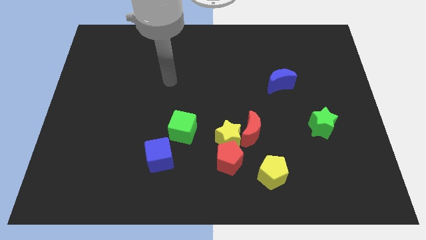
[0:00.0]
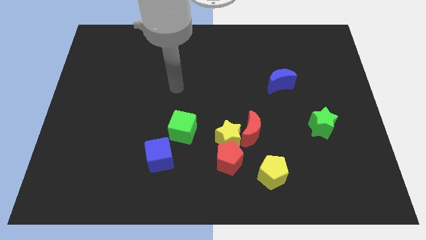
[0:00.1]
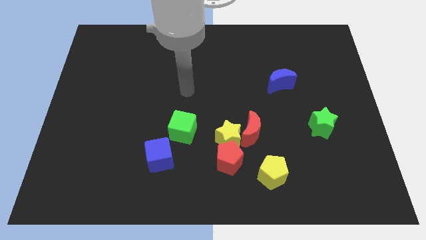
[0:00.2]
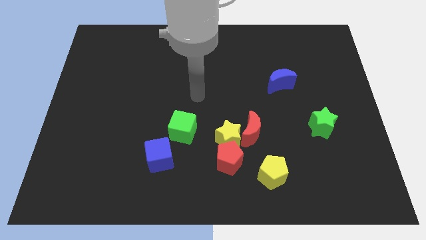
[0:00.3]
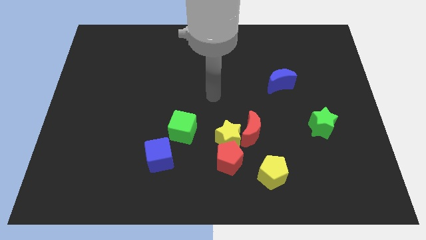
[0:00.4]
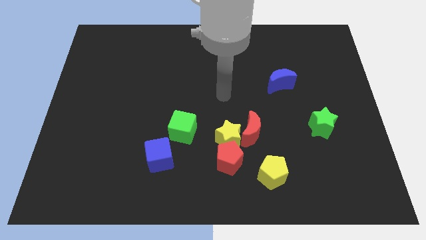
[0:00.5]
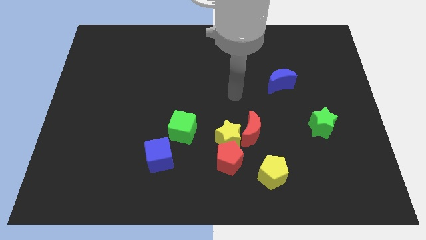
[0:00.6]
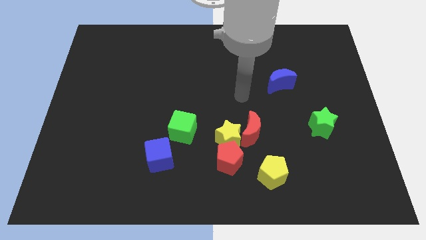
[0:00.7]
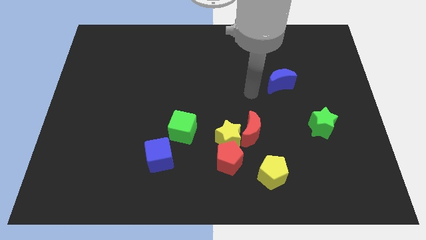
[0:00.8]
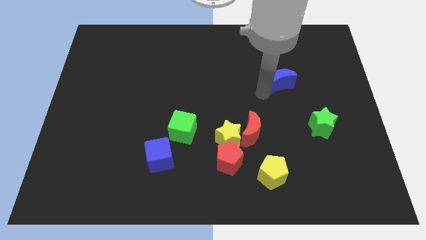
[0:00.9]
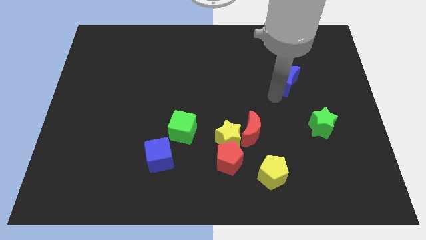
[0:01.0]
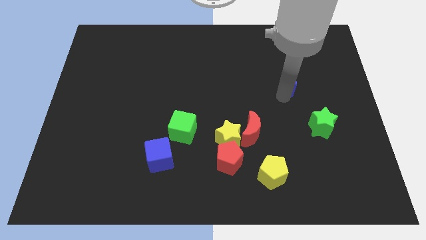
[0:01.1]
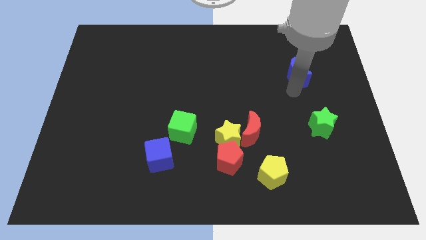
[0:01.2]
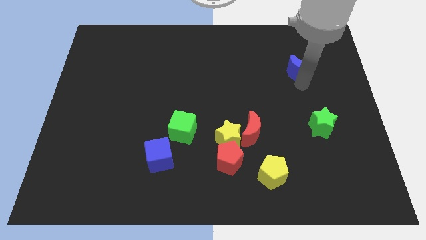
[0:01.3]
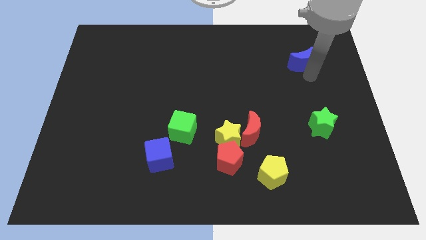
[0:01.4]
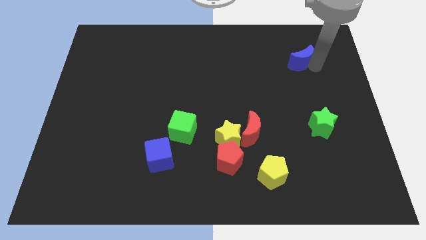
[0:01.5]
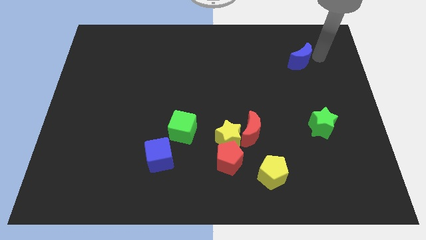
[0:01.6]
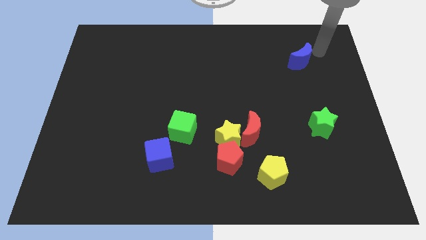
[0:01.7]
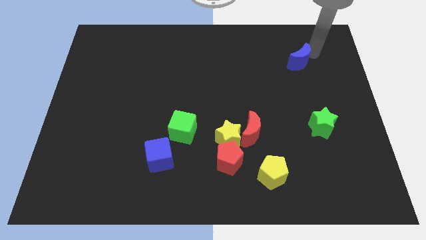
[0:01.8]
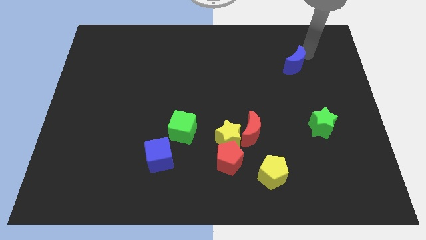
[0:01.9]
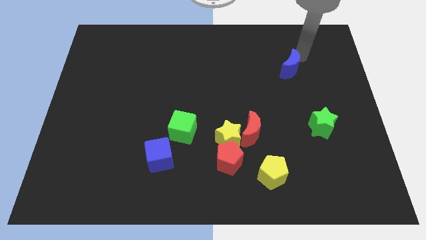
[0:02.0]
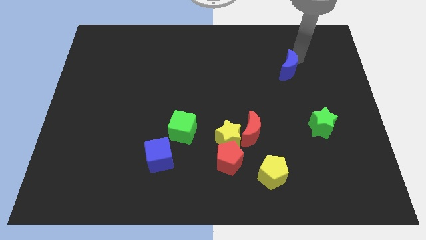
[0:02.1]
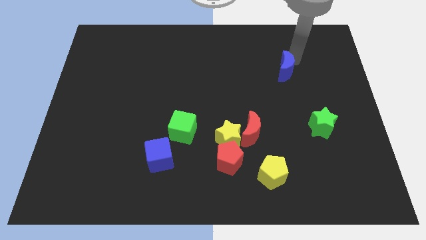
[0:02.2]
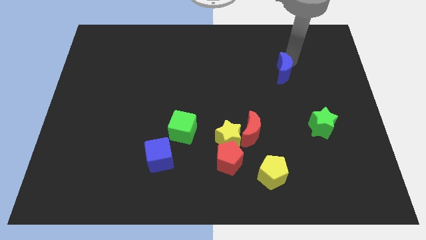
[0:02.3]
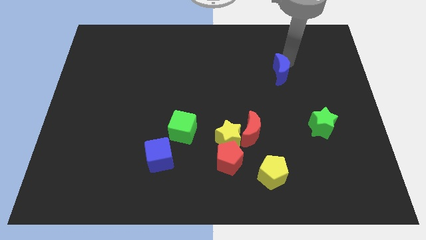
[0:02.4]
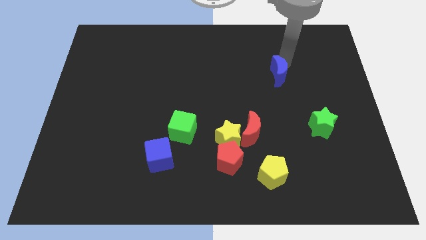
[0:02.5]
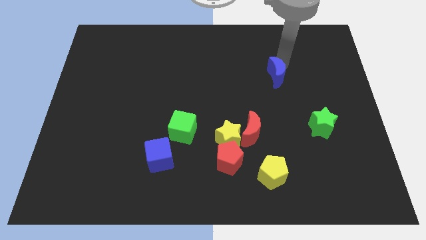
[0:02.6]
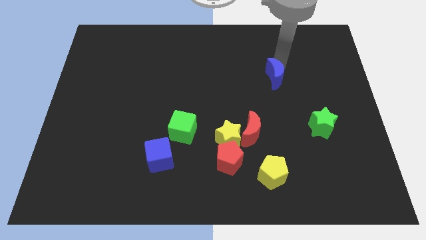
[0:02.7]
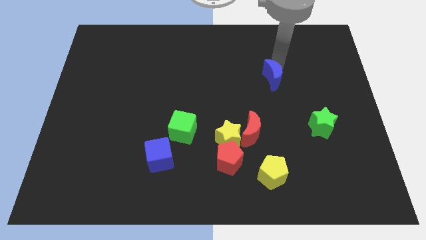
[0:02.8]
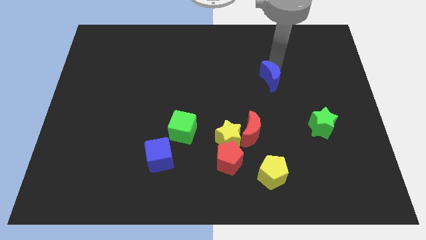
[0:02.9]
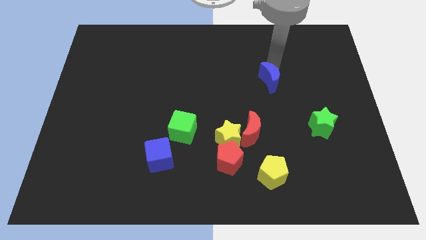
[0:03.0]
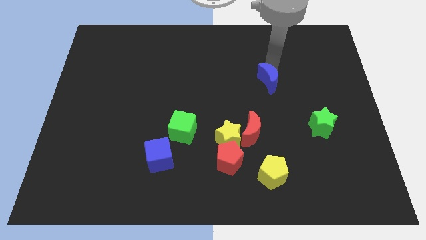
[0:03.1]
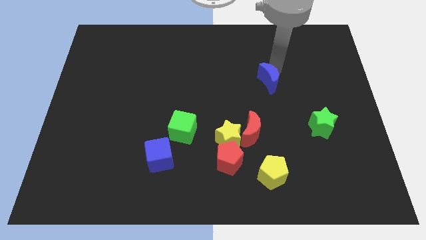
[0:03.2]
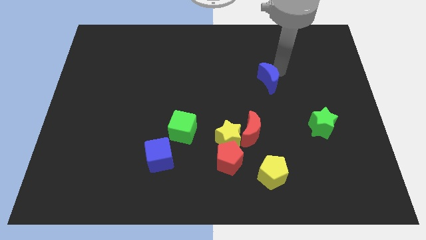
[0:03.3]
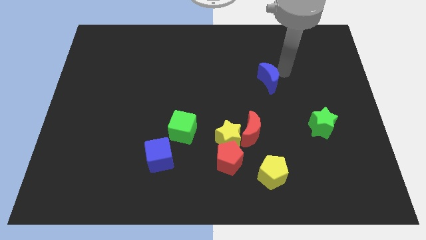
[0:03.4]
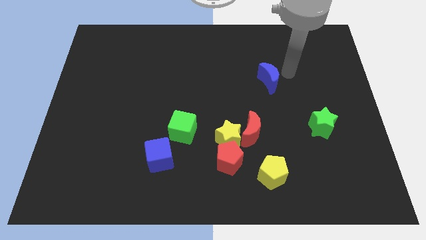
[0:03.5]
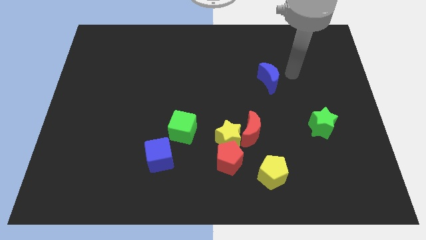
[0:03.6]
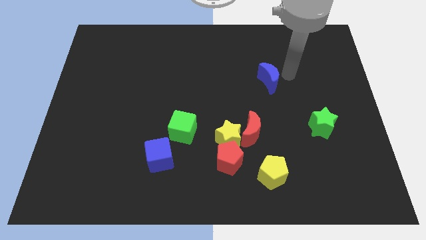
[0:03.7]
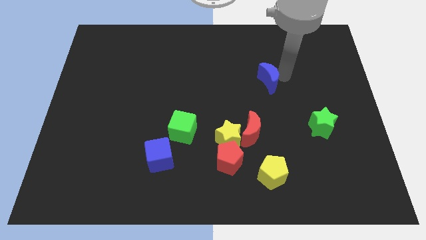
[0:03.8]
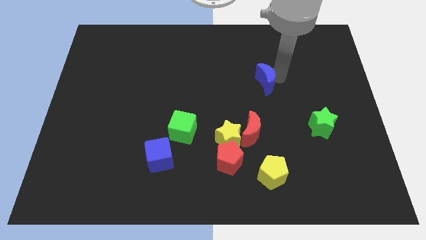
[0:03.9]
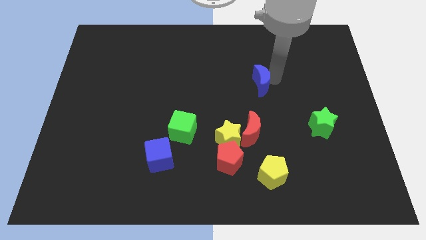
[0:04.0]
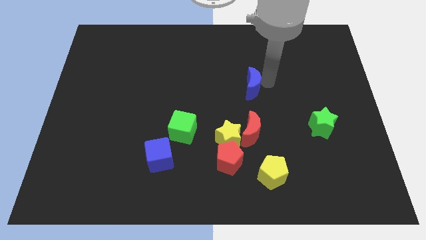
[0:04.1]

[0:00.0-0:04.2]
slightly push the blue moon left

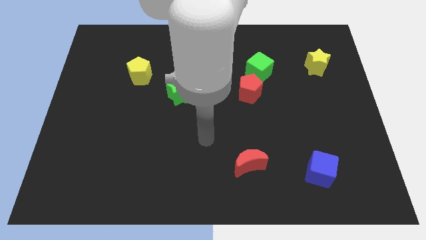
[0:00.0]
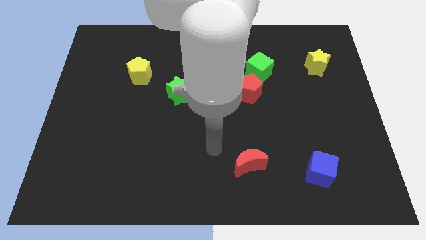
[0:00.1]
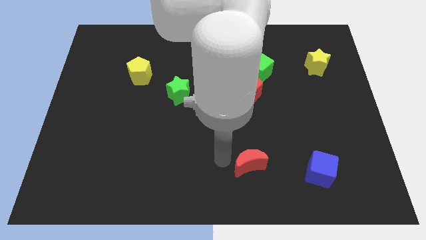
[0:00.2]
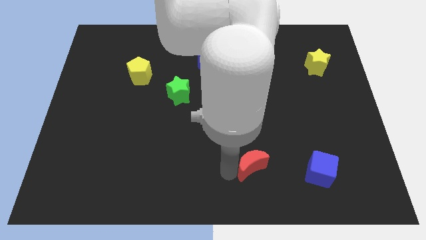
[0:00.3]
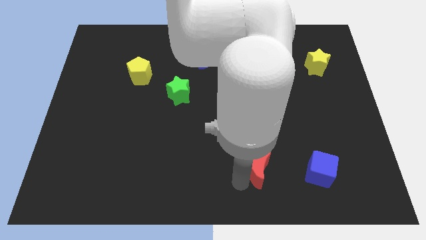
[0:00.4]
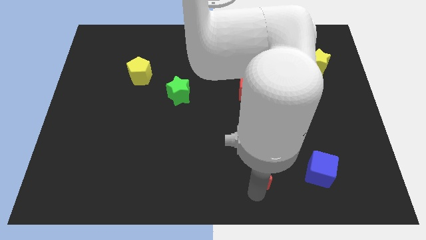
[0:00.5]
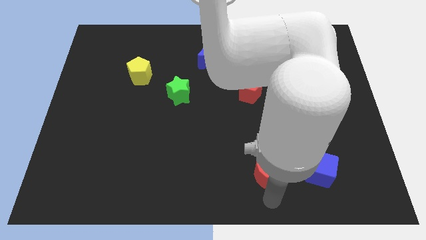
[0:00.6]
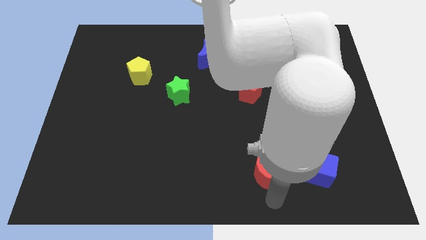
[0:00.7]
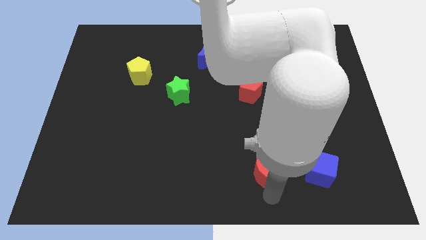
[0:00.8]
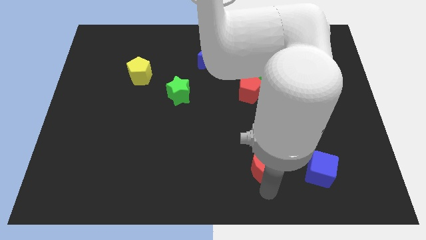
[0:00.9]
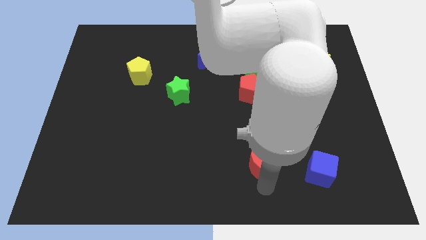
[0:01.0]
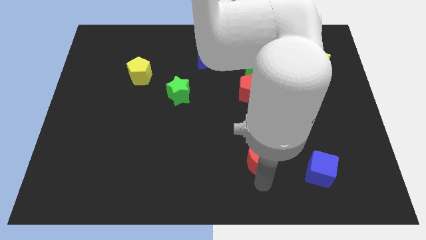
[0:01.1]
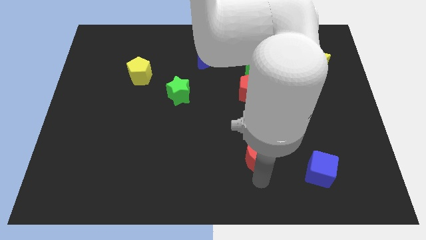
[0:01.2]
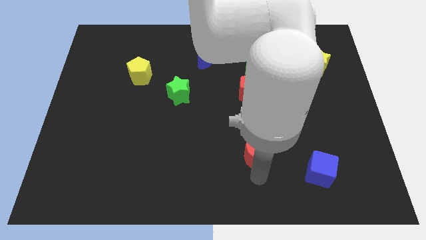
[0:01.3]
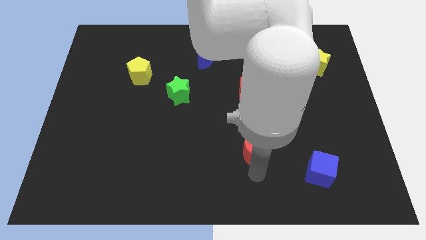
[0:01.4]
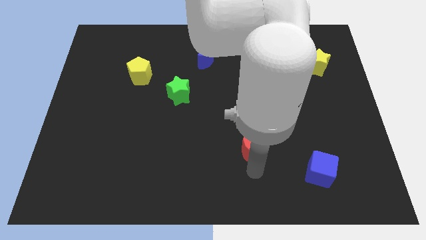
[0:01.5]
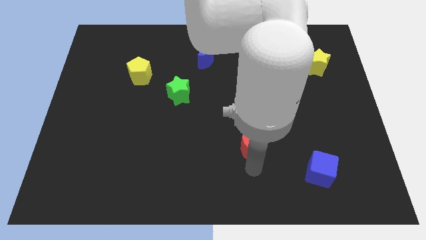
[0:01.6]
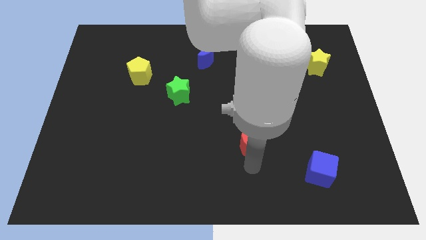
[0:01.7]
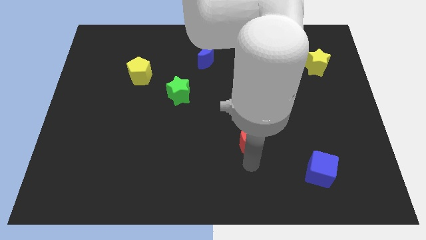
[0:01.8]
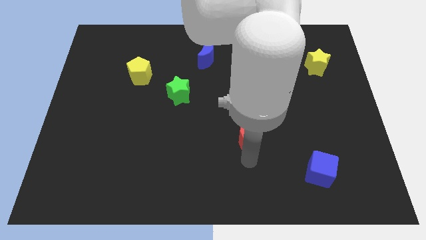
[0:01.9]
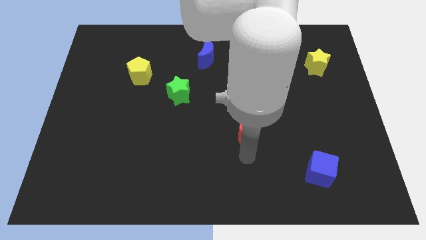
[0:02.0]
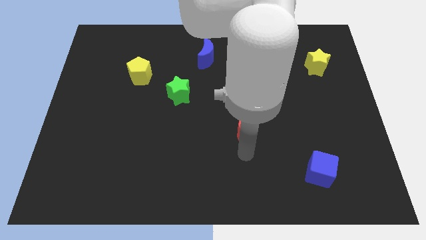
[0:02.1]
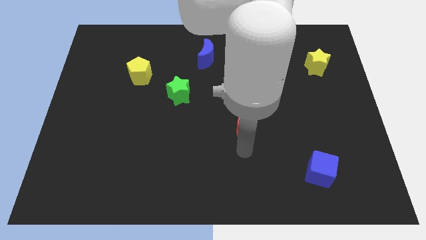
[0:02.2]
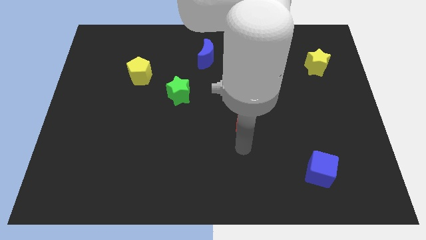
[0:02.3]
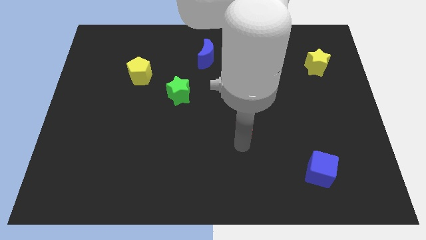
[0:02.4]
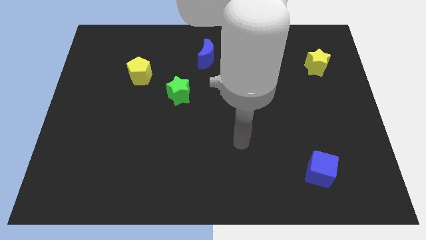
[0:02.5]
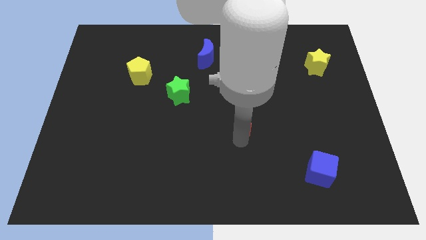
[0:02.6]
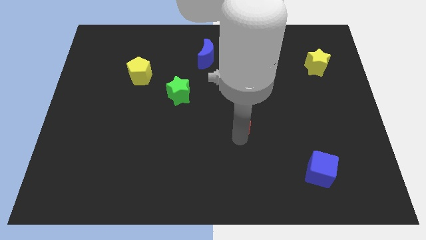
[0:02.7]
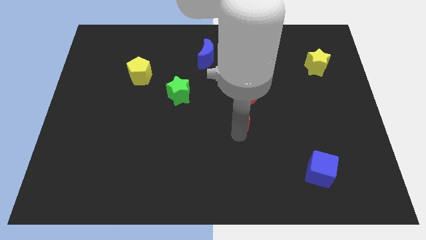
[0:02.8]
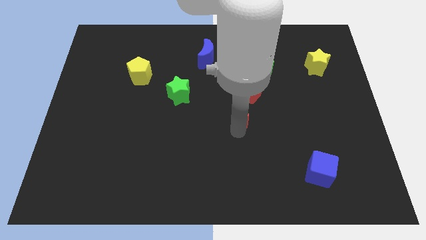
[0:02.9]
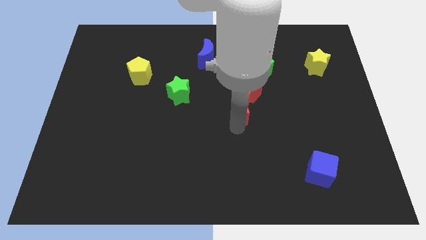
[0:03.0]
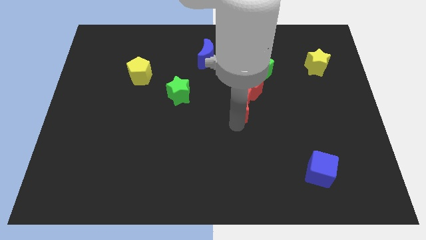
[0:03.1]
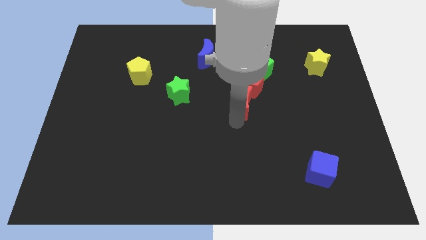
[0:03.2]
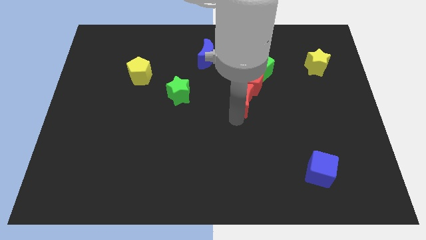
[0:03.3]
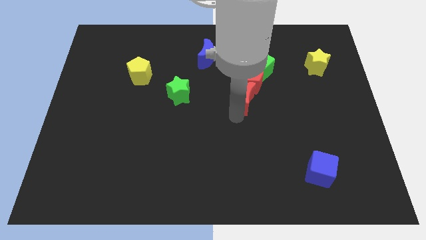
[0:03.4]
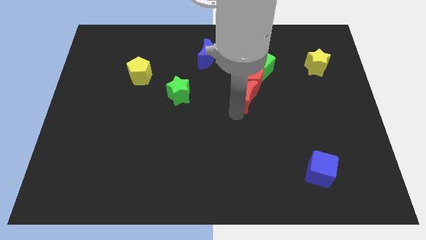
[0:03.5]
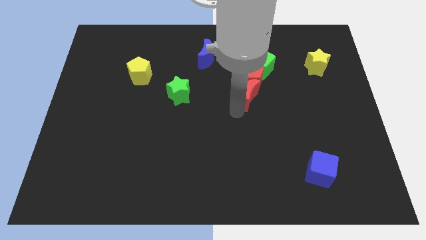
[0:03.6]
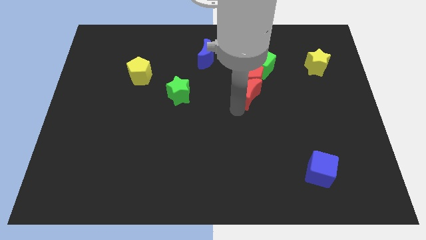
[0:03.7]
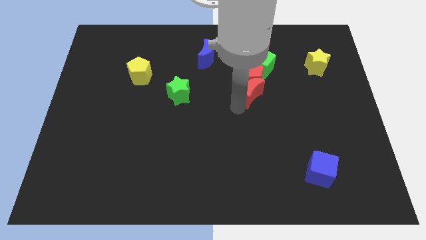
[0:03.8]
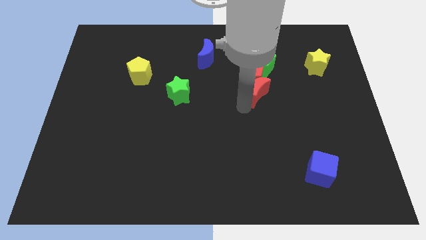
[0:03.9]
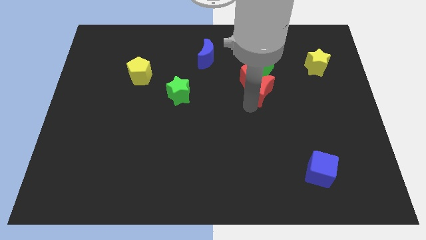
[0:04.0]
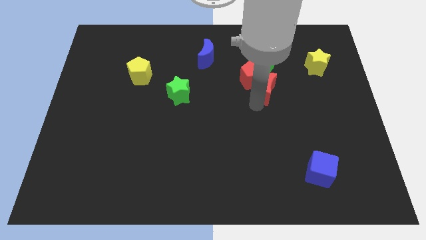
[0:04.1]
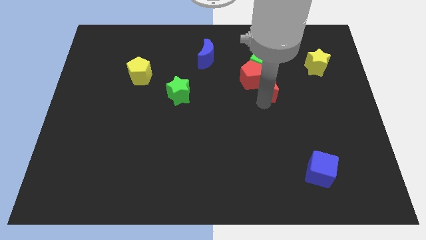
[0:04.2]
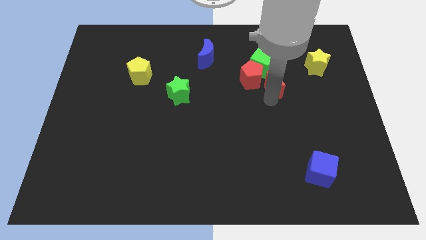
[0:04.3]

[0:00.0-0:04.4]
move the red moon upwards
